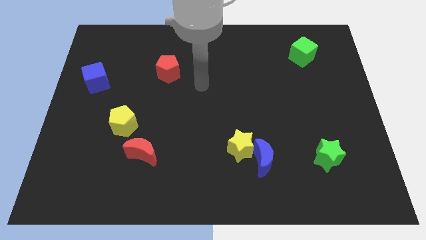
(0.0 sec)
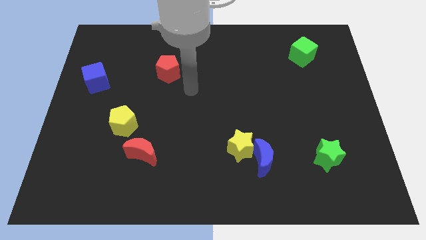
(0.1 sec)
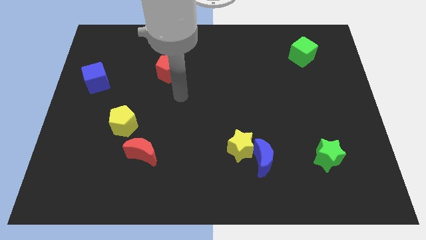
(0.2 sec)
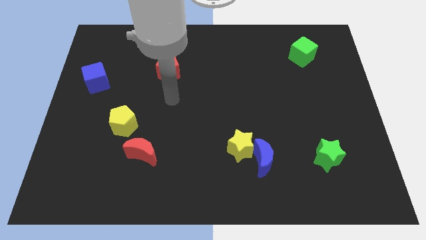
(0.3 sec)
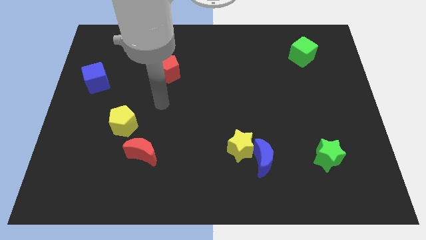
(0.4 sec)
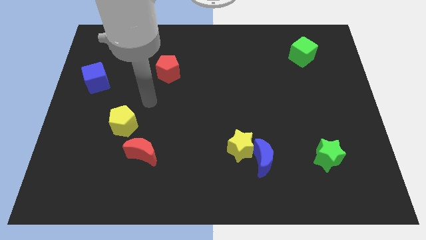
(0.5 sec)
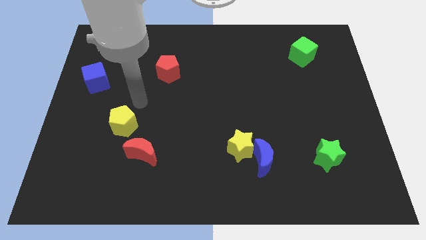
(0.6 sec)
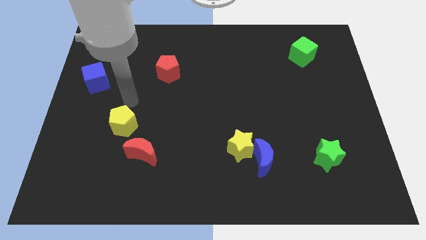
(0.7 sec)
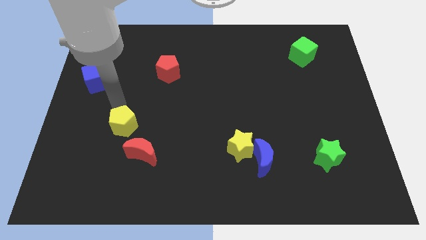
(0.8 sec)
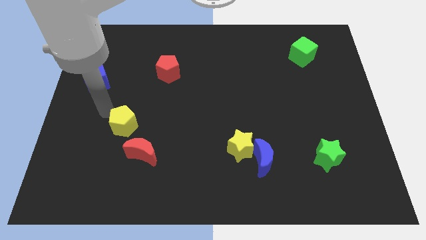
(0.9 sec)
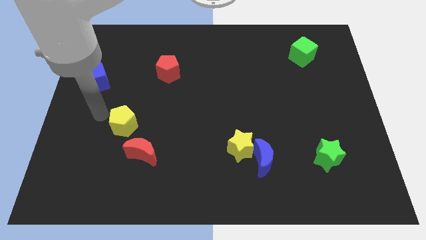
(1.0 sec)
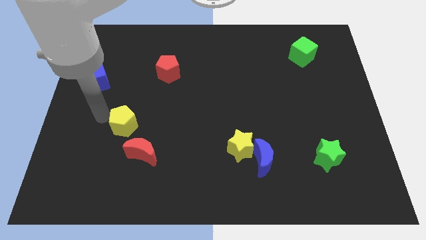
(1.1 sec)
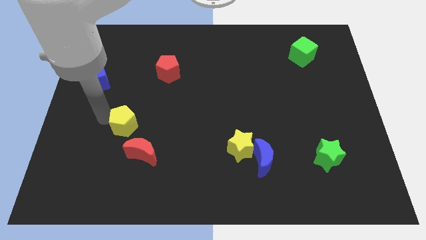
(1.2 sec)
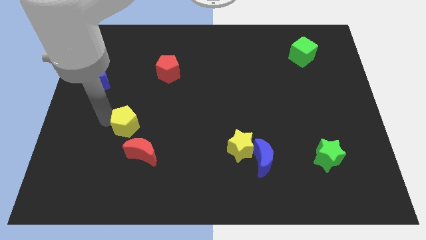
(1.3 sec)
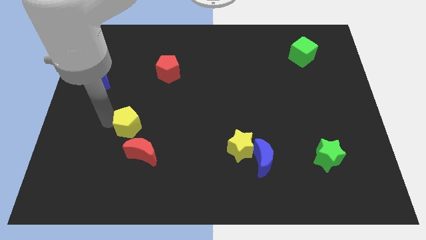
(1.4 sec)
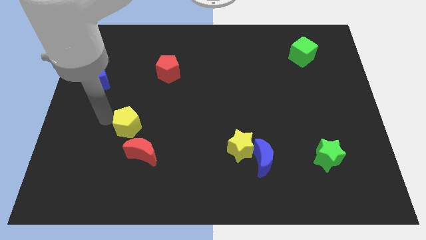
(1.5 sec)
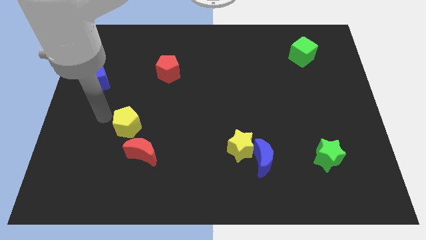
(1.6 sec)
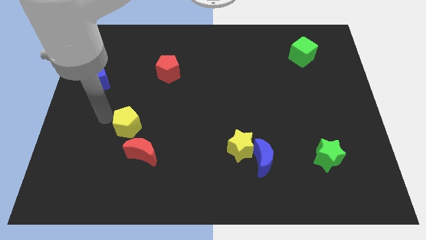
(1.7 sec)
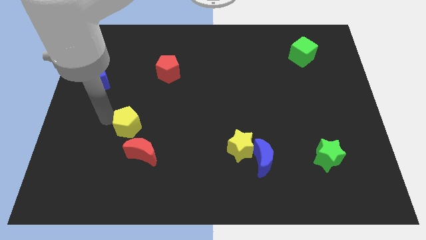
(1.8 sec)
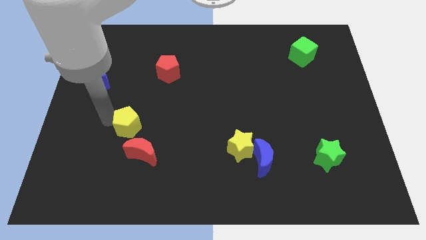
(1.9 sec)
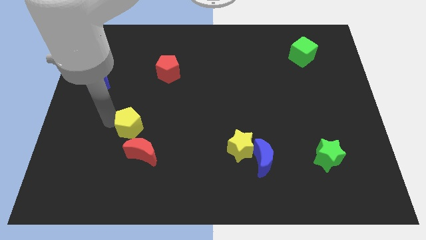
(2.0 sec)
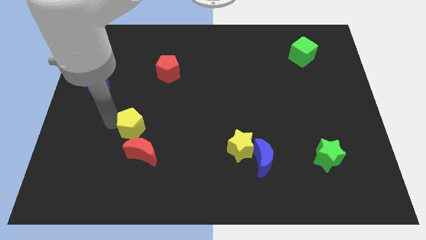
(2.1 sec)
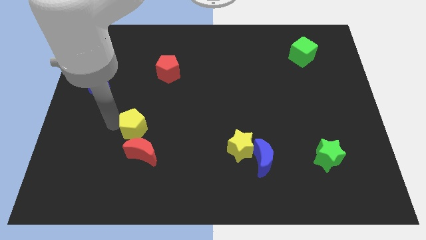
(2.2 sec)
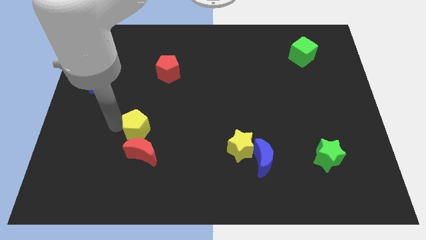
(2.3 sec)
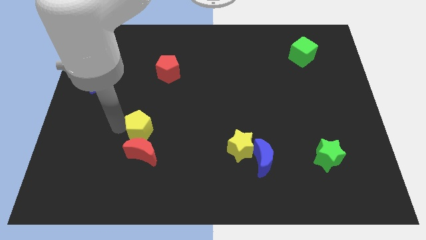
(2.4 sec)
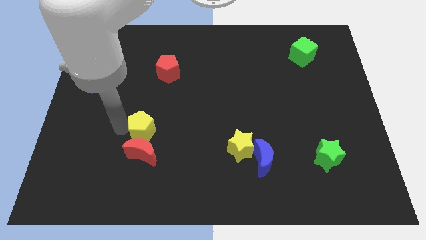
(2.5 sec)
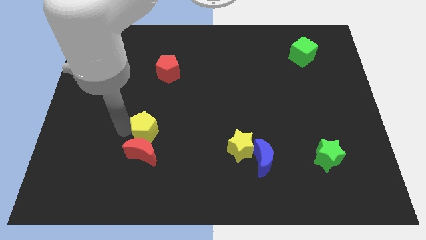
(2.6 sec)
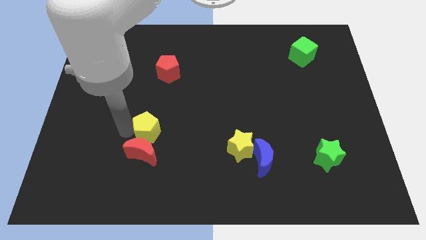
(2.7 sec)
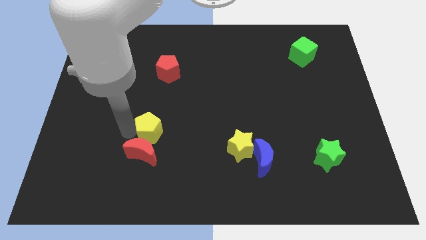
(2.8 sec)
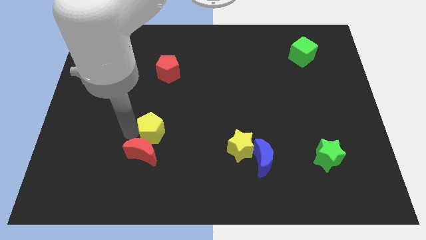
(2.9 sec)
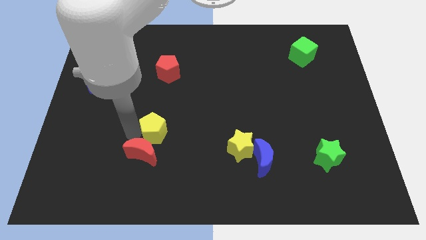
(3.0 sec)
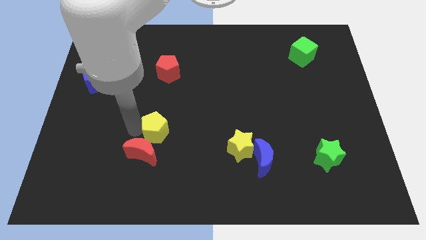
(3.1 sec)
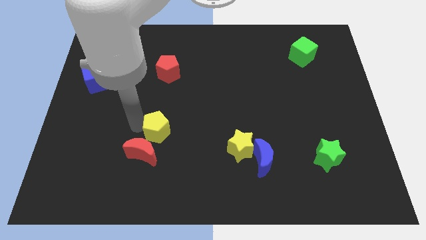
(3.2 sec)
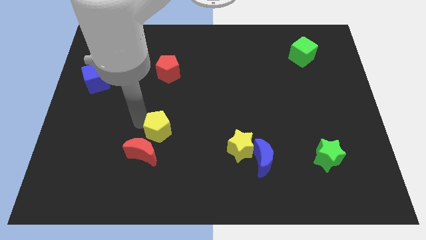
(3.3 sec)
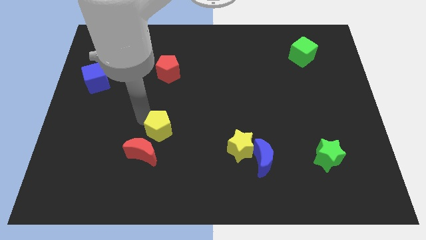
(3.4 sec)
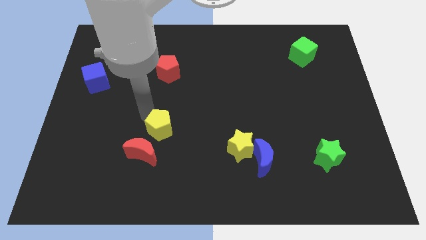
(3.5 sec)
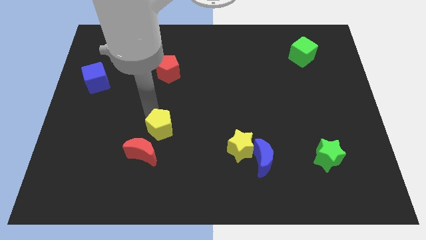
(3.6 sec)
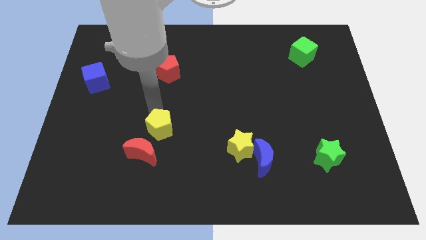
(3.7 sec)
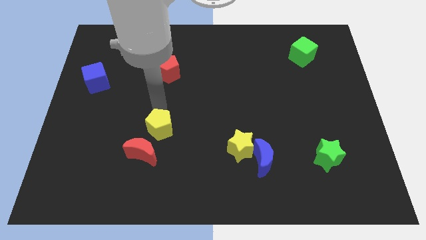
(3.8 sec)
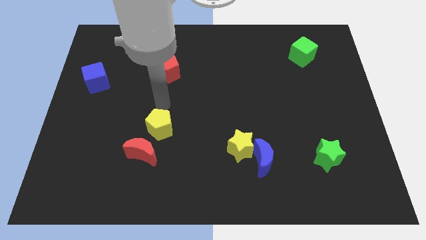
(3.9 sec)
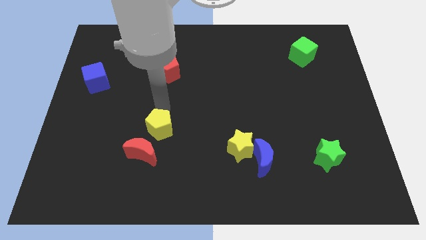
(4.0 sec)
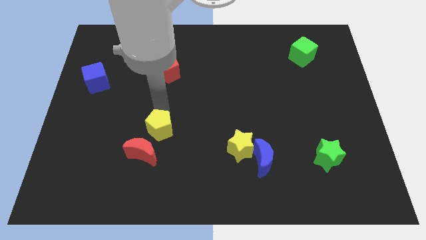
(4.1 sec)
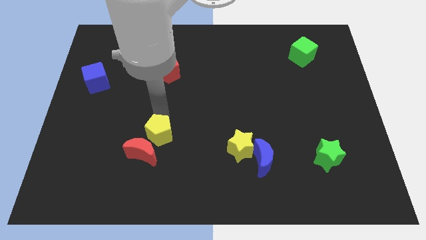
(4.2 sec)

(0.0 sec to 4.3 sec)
slightly slide the yellow pentagon downwards and right

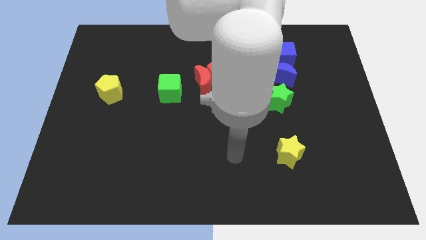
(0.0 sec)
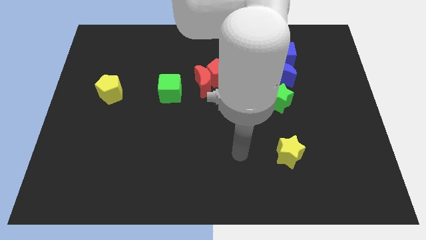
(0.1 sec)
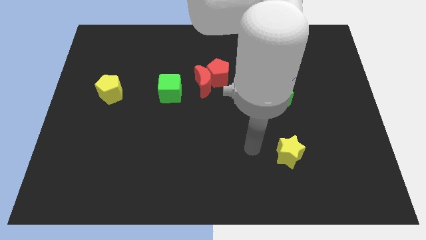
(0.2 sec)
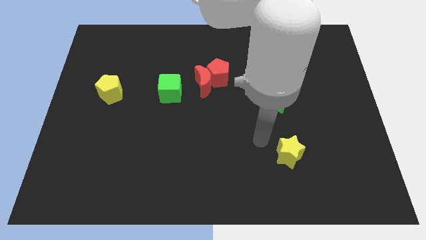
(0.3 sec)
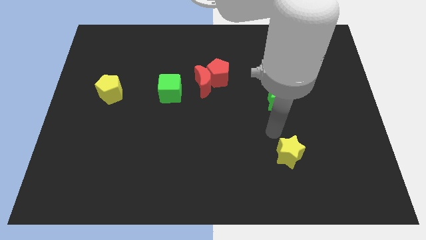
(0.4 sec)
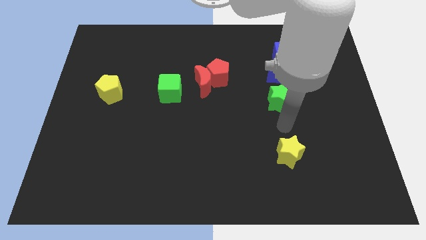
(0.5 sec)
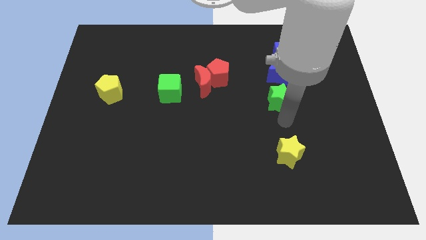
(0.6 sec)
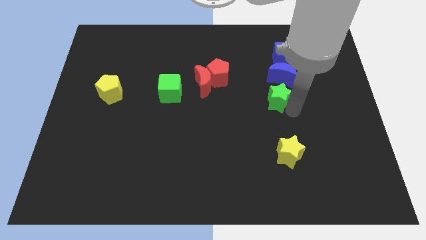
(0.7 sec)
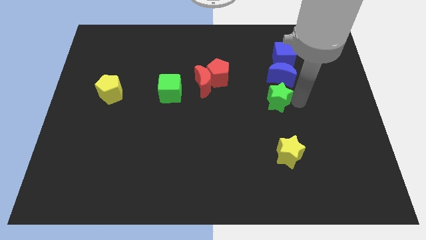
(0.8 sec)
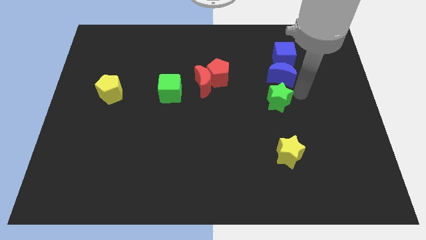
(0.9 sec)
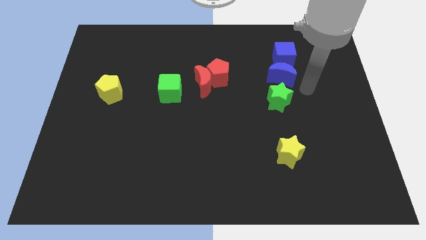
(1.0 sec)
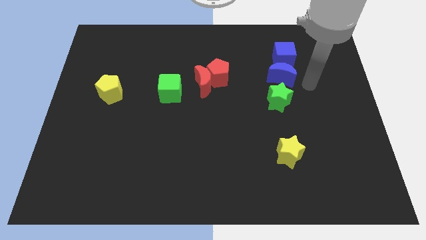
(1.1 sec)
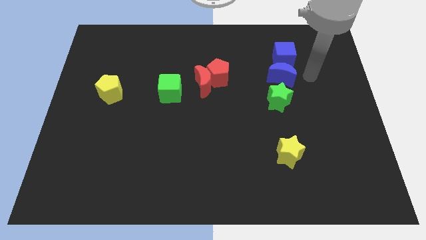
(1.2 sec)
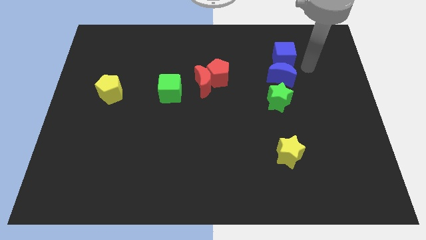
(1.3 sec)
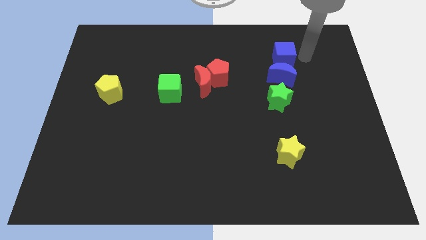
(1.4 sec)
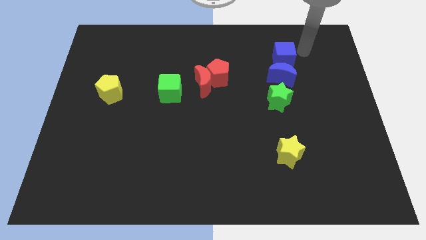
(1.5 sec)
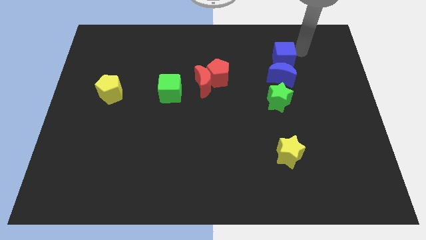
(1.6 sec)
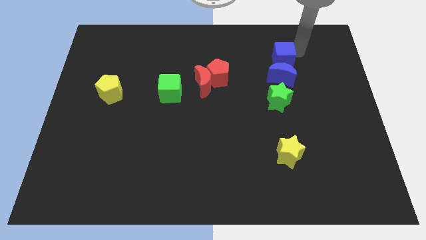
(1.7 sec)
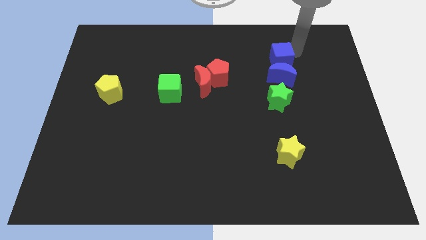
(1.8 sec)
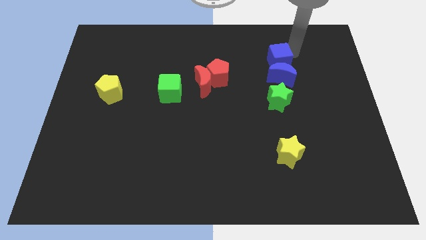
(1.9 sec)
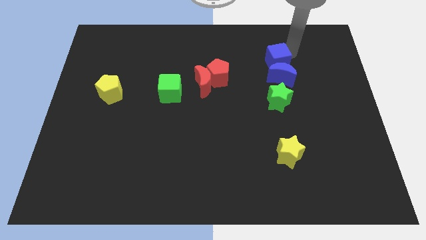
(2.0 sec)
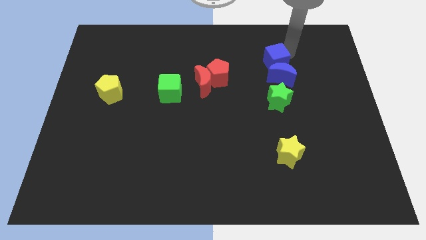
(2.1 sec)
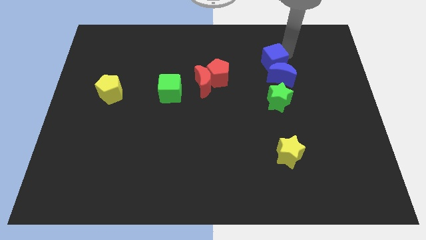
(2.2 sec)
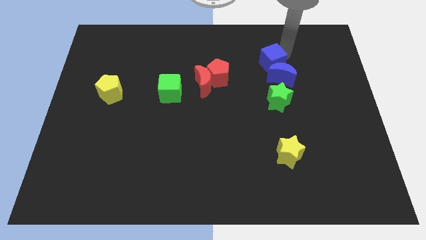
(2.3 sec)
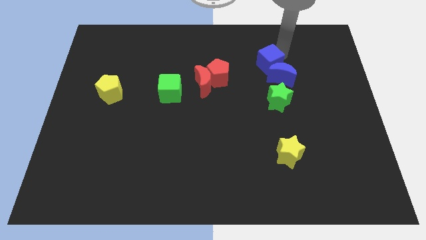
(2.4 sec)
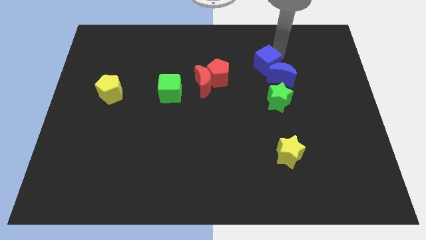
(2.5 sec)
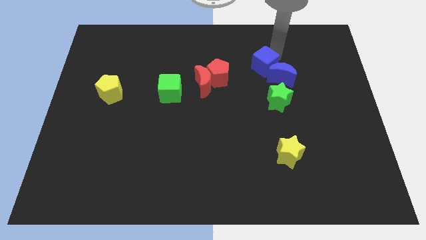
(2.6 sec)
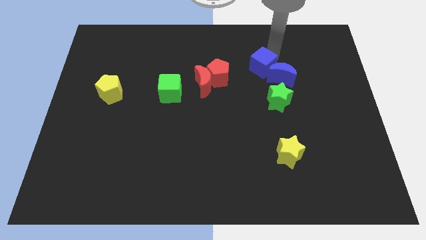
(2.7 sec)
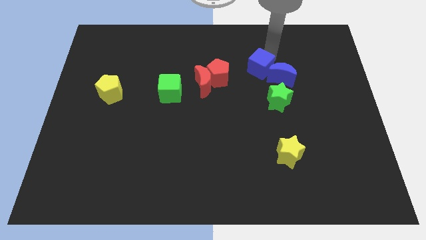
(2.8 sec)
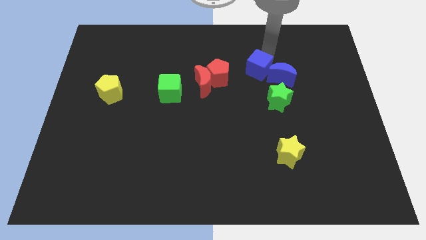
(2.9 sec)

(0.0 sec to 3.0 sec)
slightly push the blue cube downwards and left

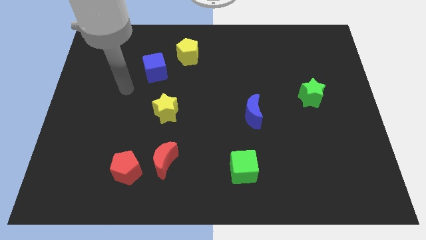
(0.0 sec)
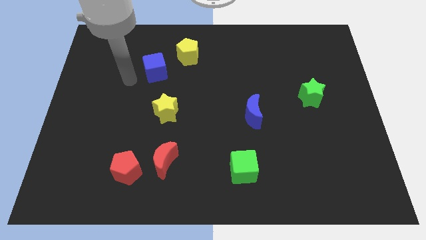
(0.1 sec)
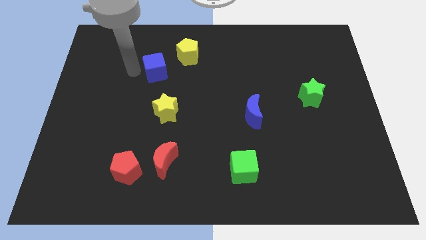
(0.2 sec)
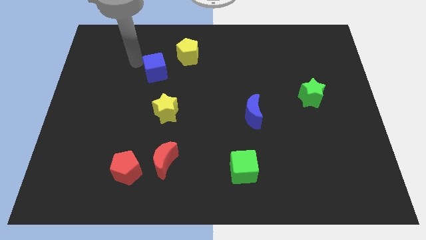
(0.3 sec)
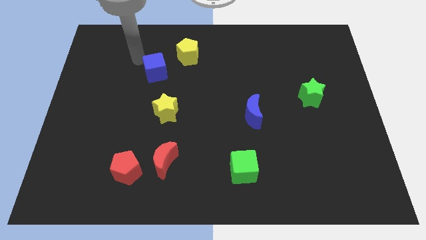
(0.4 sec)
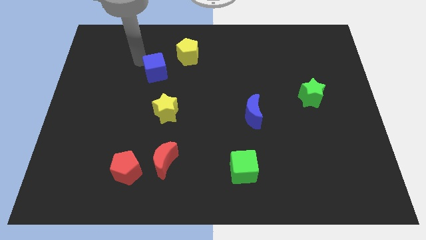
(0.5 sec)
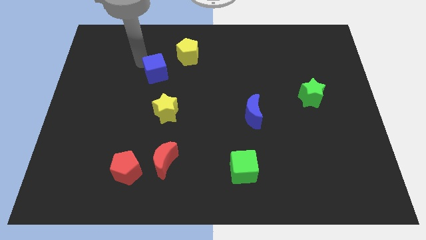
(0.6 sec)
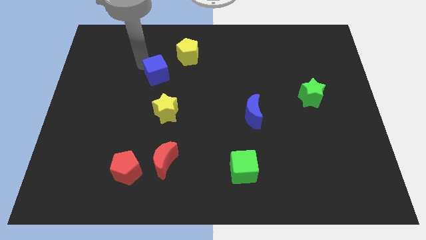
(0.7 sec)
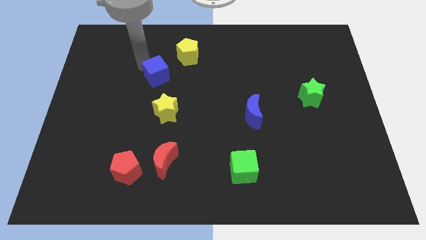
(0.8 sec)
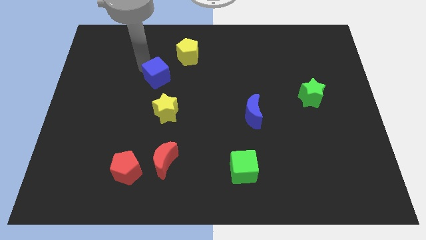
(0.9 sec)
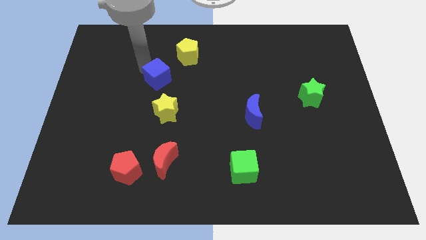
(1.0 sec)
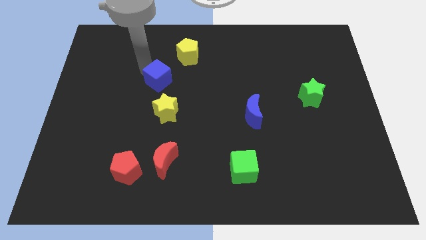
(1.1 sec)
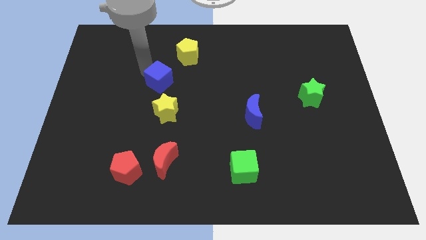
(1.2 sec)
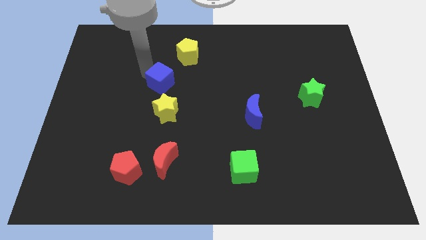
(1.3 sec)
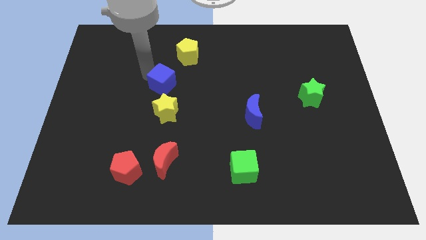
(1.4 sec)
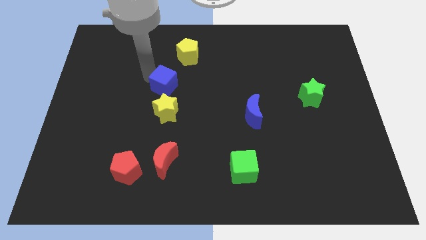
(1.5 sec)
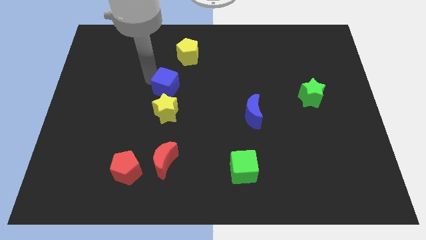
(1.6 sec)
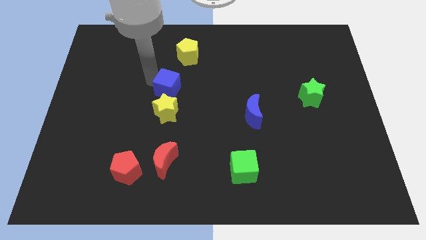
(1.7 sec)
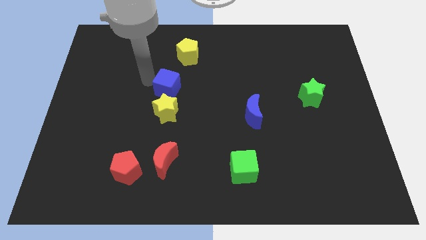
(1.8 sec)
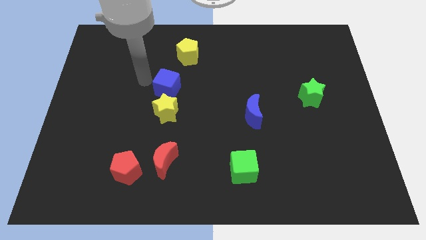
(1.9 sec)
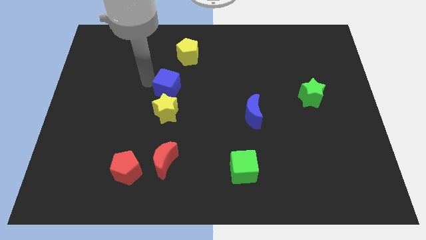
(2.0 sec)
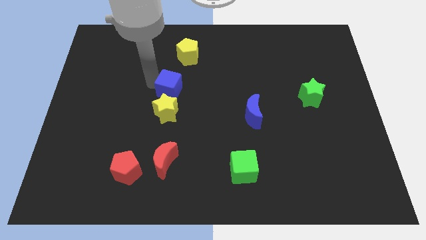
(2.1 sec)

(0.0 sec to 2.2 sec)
push the blue cube downwards and right diagonally a little
